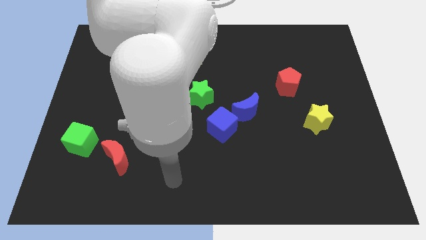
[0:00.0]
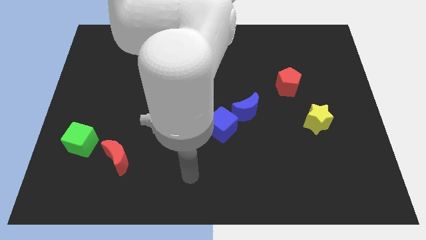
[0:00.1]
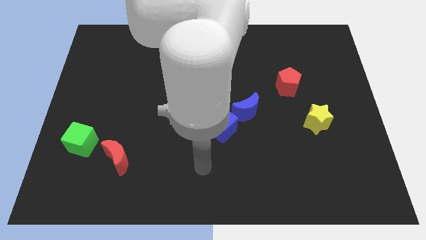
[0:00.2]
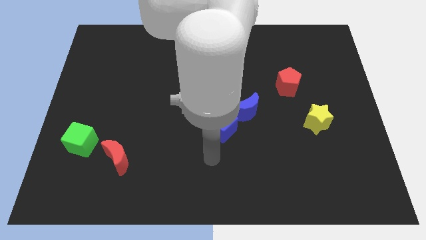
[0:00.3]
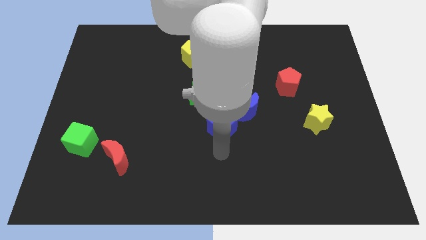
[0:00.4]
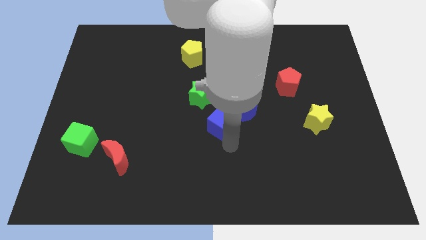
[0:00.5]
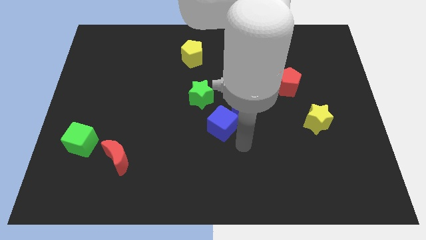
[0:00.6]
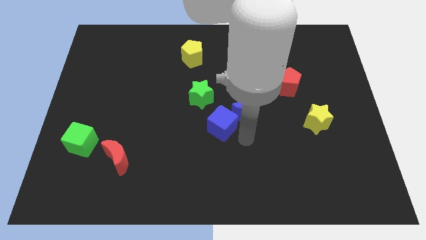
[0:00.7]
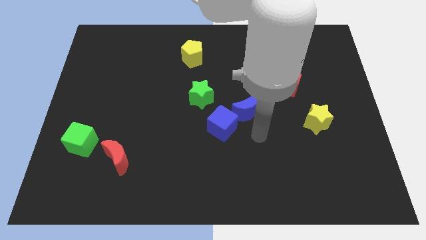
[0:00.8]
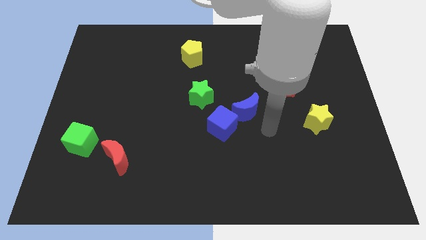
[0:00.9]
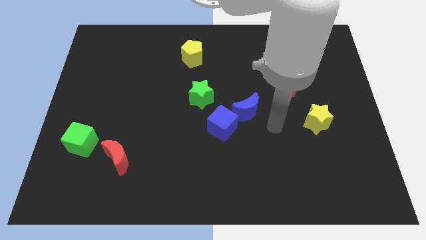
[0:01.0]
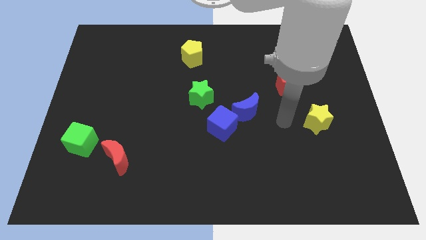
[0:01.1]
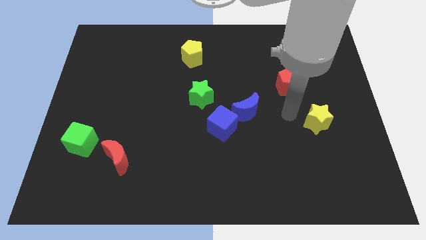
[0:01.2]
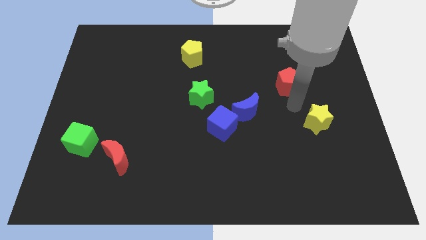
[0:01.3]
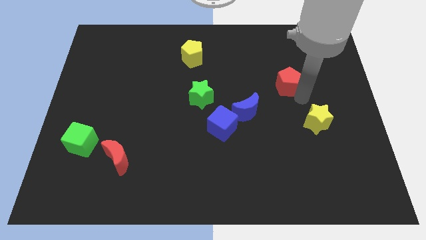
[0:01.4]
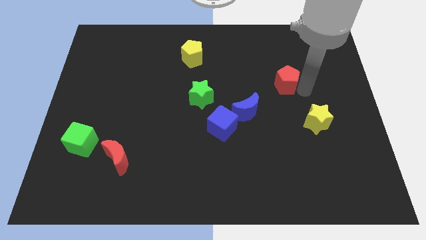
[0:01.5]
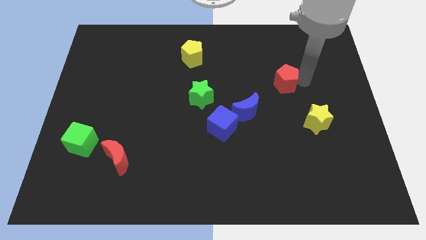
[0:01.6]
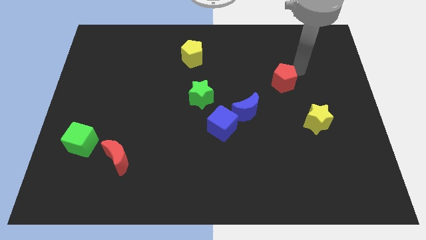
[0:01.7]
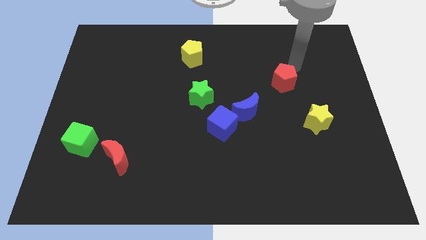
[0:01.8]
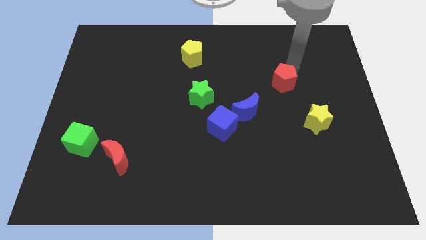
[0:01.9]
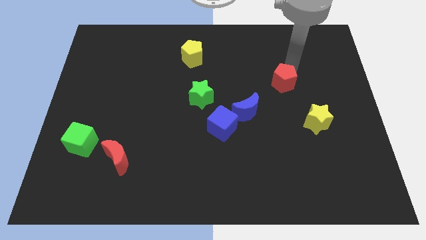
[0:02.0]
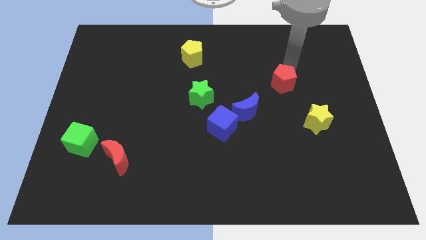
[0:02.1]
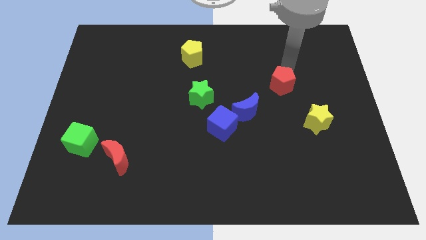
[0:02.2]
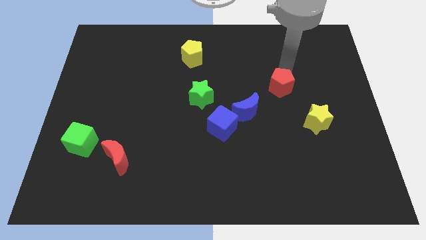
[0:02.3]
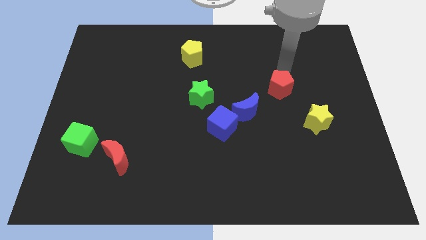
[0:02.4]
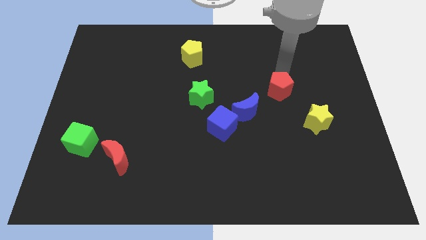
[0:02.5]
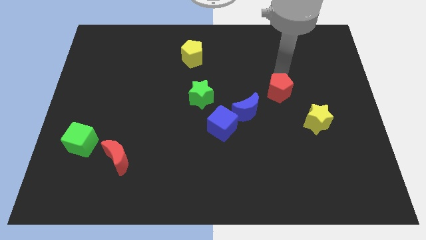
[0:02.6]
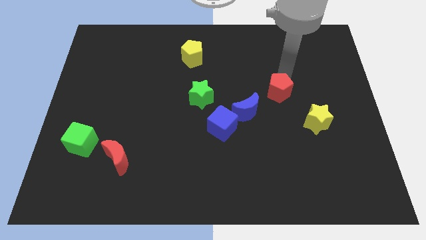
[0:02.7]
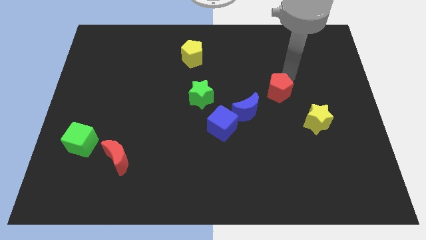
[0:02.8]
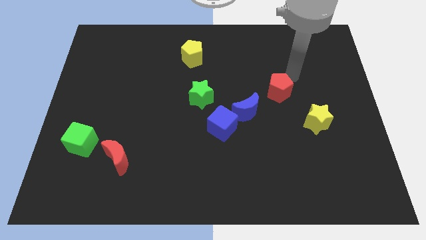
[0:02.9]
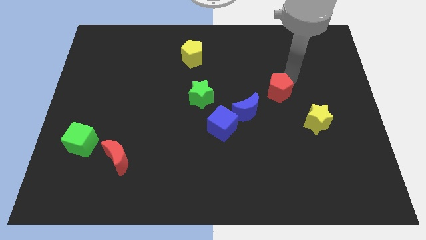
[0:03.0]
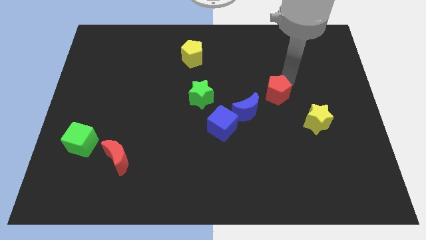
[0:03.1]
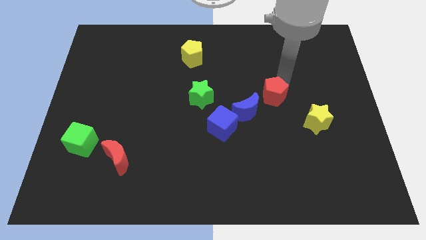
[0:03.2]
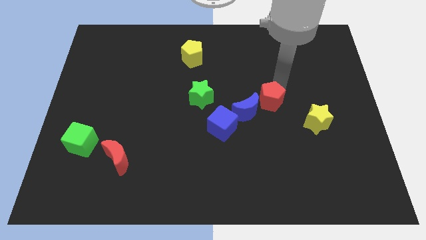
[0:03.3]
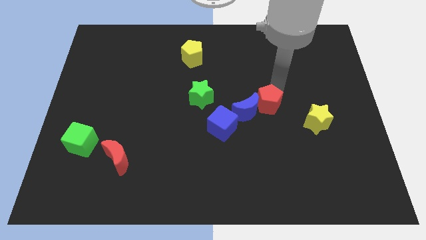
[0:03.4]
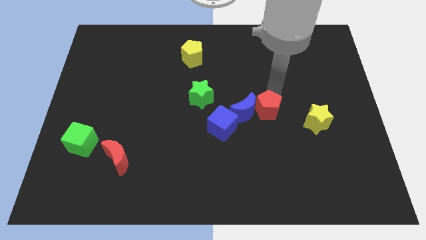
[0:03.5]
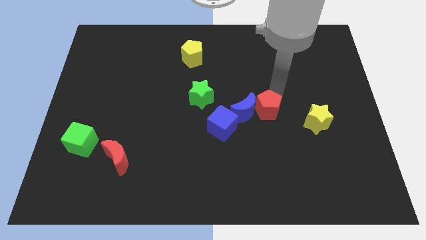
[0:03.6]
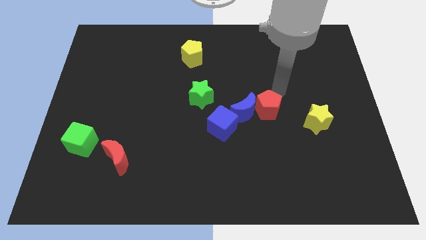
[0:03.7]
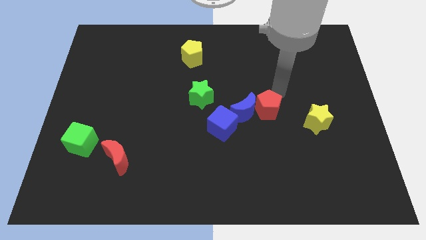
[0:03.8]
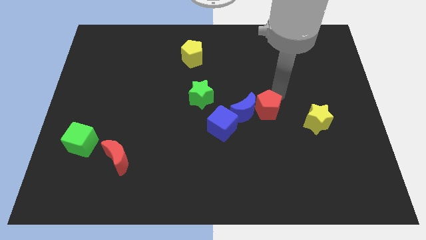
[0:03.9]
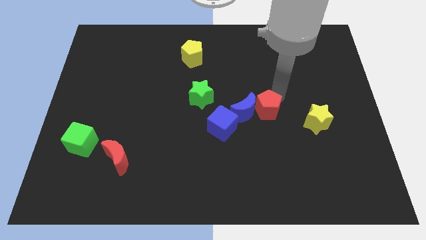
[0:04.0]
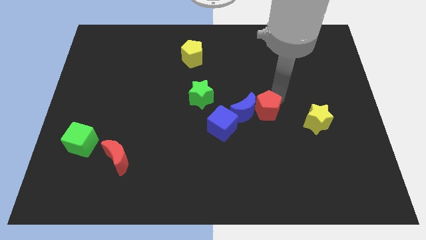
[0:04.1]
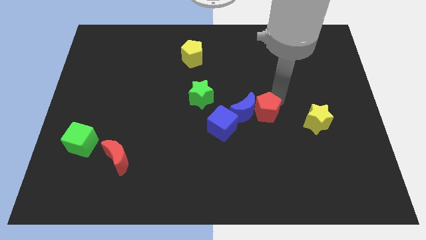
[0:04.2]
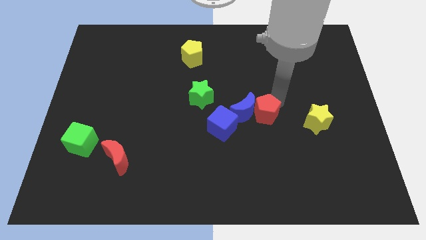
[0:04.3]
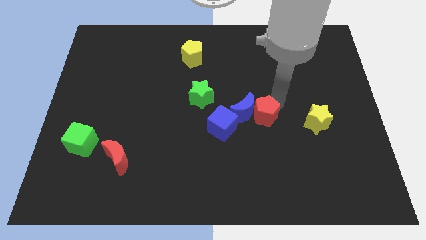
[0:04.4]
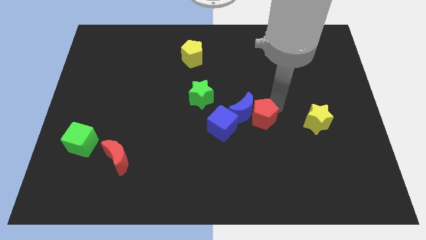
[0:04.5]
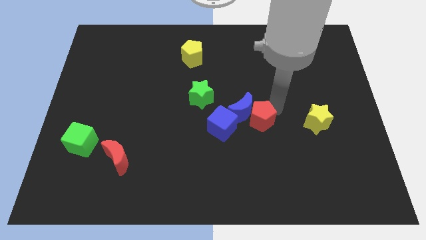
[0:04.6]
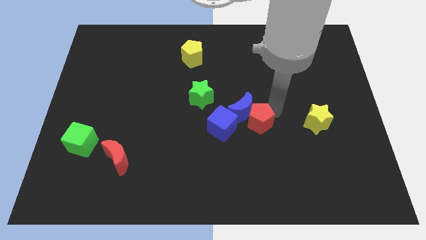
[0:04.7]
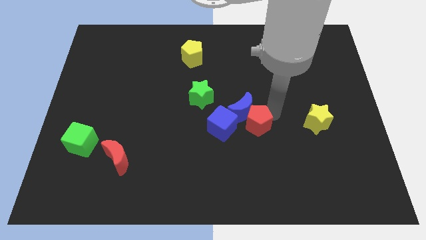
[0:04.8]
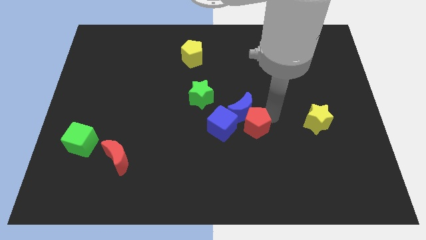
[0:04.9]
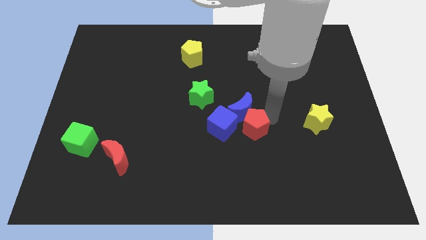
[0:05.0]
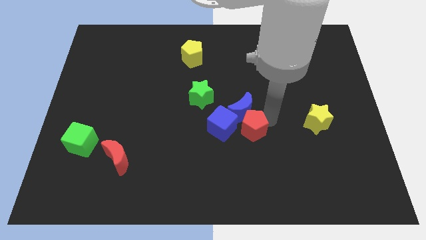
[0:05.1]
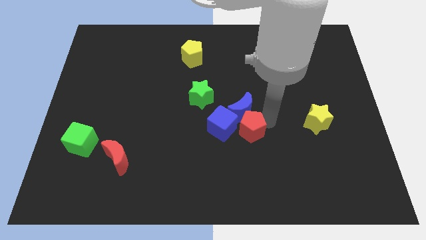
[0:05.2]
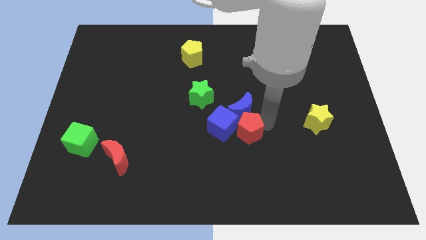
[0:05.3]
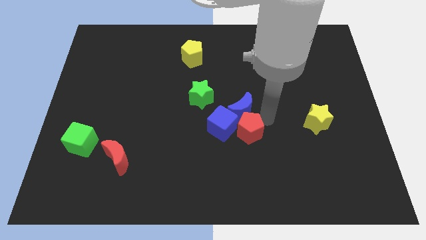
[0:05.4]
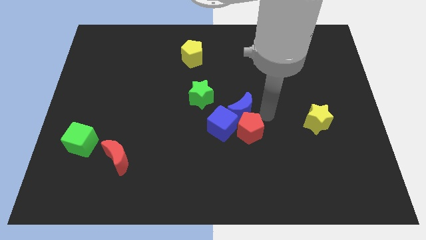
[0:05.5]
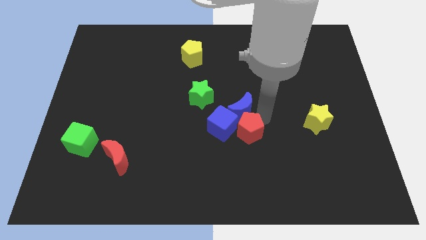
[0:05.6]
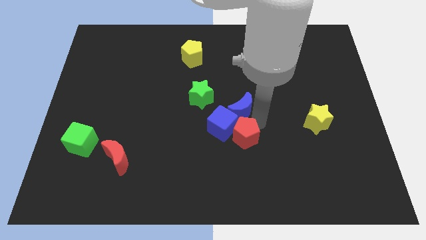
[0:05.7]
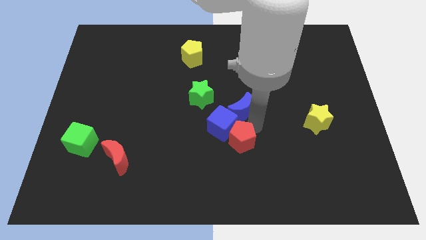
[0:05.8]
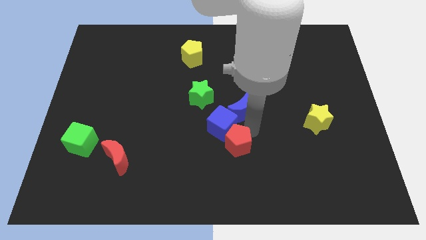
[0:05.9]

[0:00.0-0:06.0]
move the red pentagon down and to the left diagonally

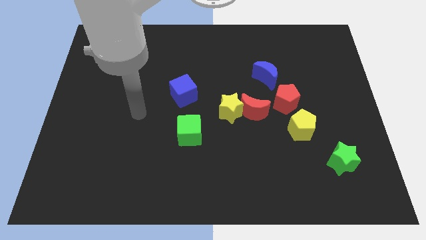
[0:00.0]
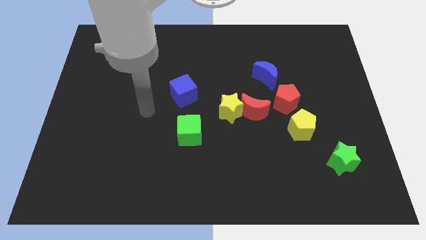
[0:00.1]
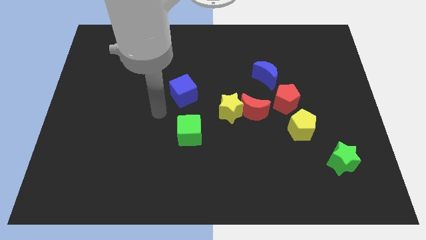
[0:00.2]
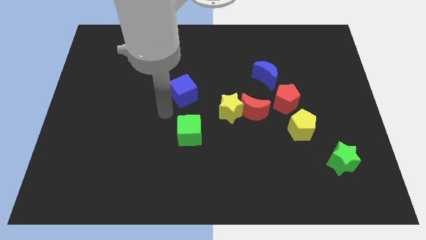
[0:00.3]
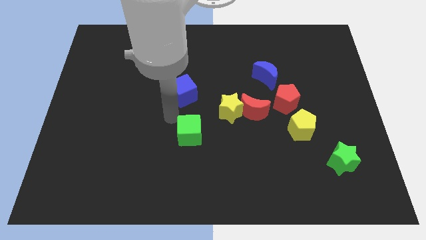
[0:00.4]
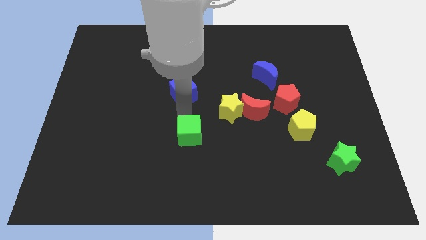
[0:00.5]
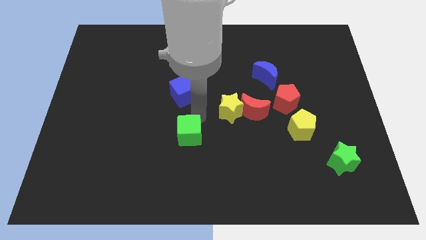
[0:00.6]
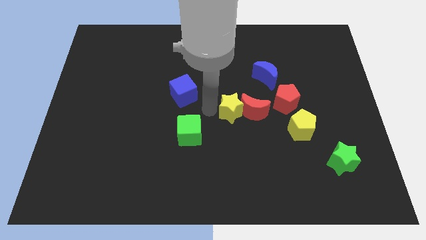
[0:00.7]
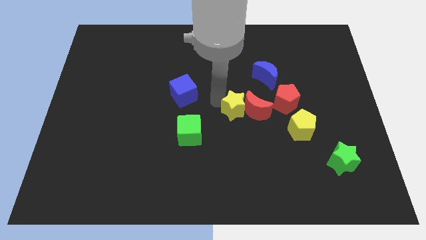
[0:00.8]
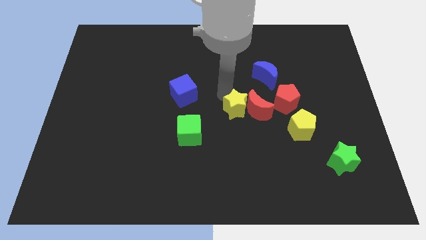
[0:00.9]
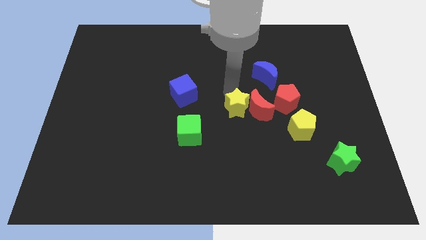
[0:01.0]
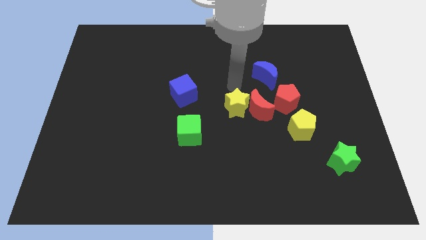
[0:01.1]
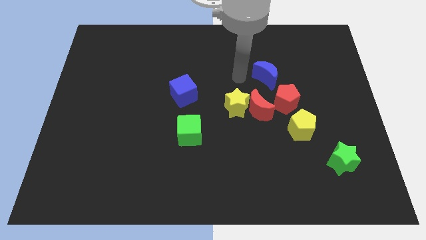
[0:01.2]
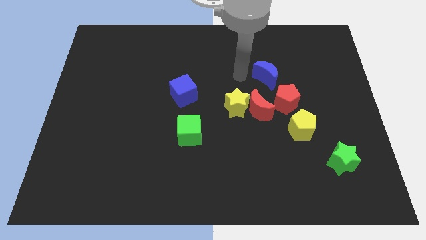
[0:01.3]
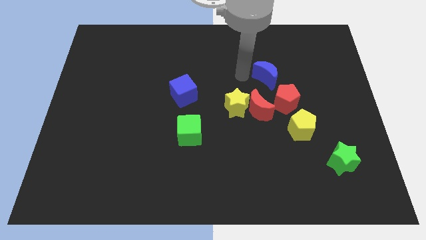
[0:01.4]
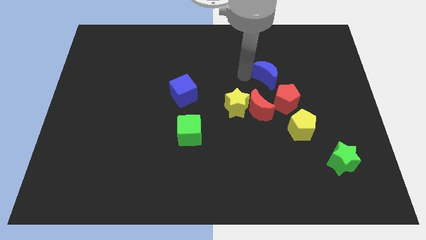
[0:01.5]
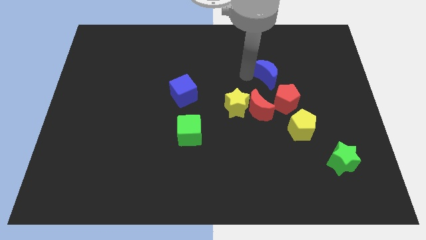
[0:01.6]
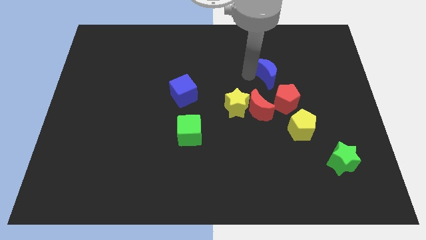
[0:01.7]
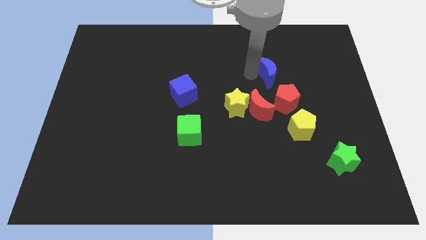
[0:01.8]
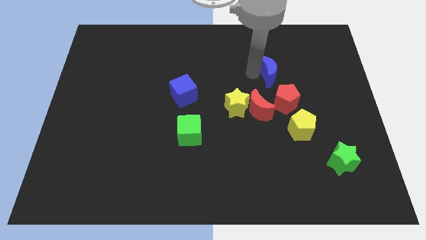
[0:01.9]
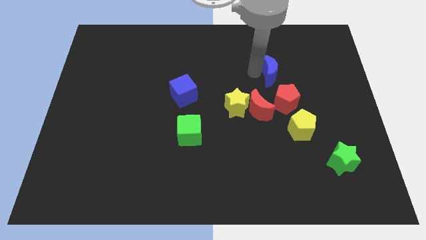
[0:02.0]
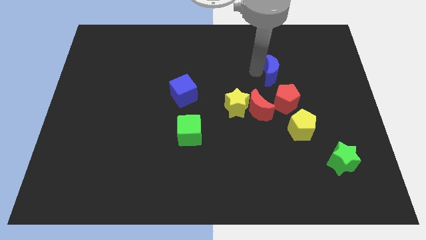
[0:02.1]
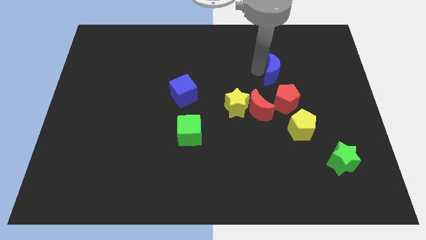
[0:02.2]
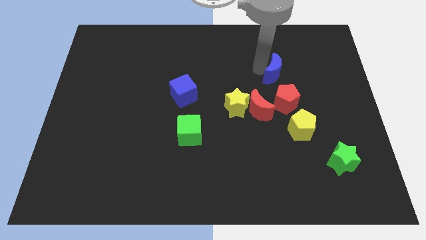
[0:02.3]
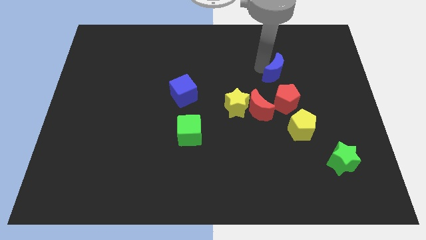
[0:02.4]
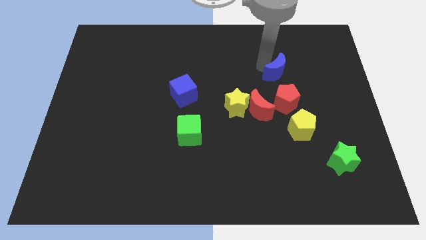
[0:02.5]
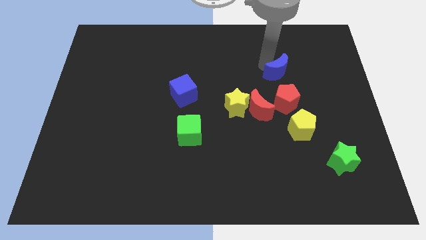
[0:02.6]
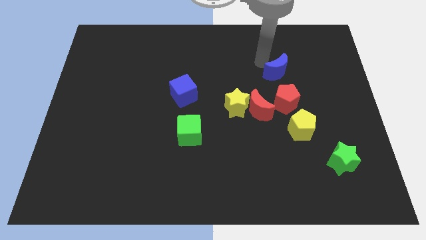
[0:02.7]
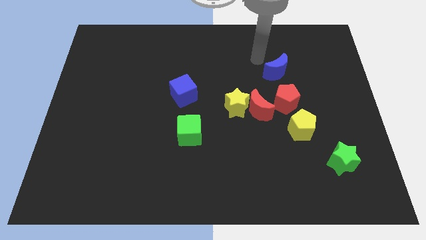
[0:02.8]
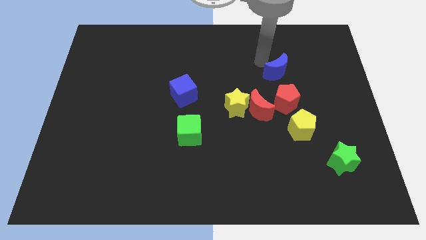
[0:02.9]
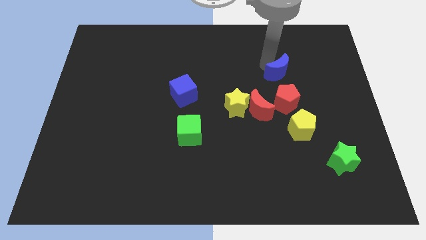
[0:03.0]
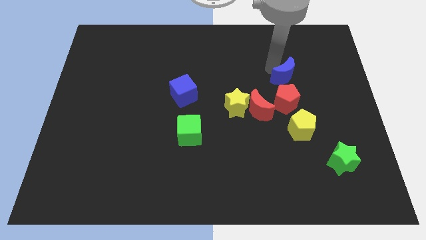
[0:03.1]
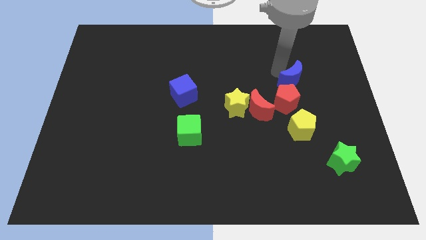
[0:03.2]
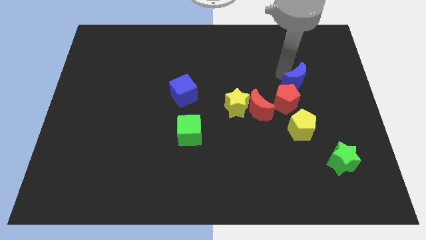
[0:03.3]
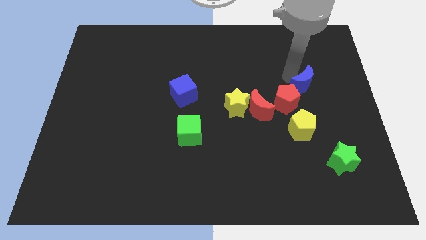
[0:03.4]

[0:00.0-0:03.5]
slightly push the blue moon diagonally down and right
